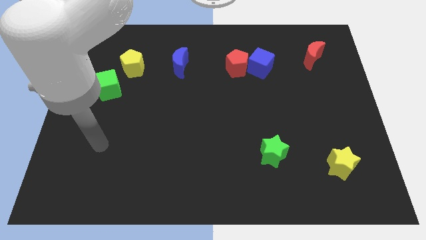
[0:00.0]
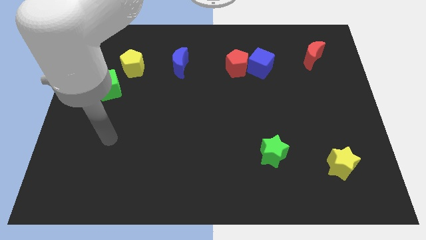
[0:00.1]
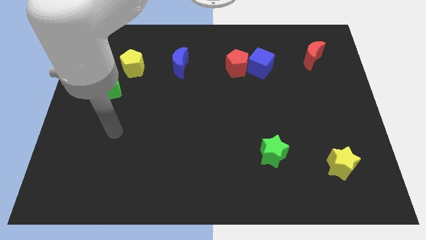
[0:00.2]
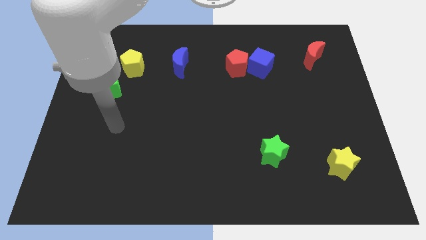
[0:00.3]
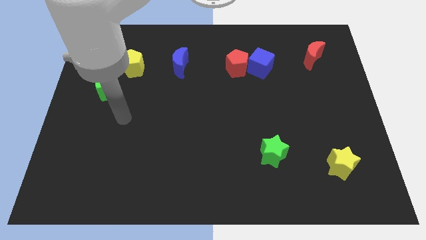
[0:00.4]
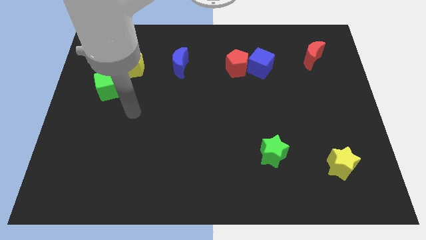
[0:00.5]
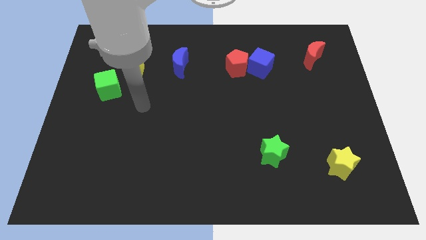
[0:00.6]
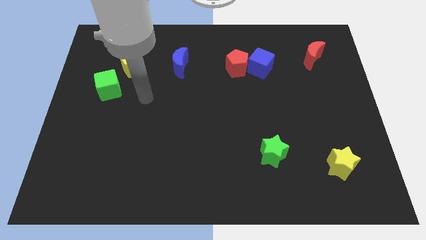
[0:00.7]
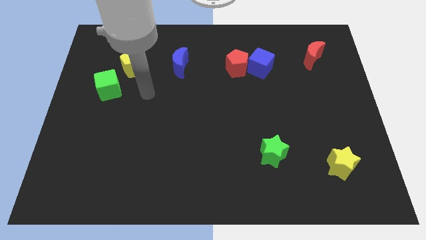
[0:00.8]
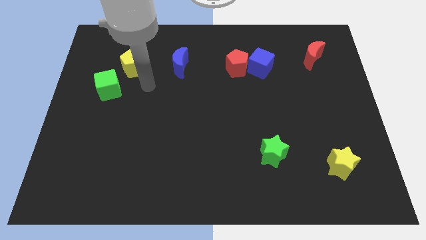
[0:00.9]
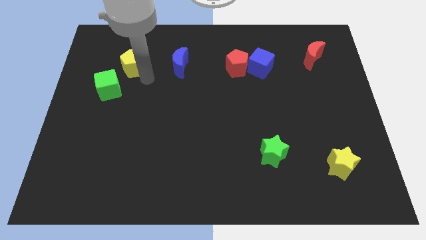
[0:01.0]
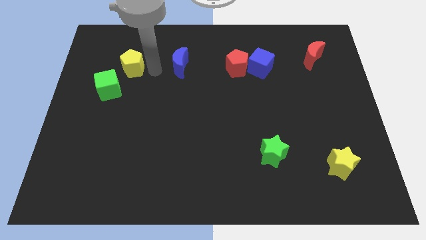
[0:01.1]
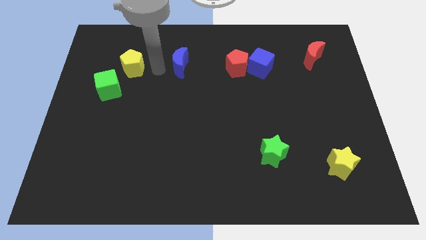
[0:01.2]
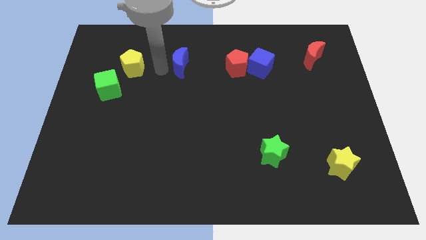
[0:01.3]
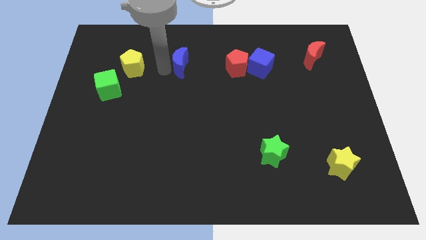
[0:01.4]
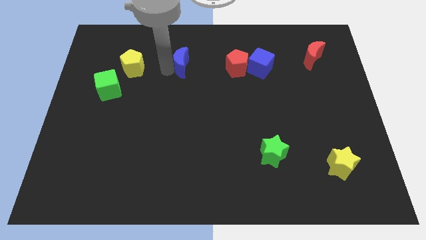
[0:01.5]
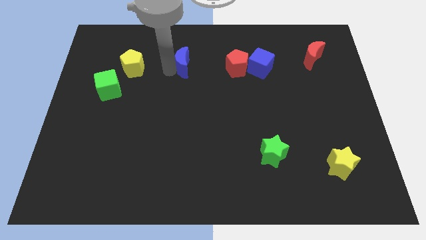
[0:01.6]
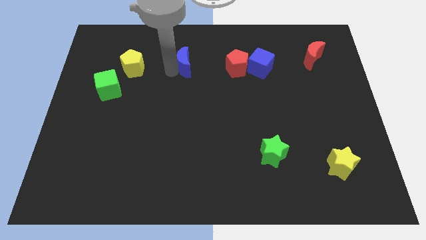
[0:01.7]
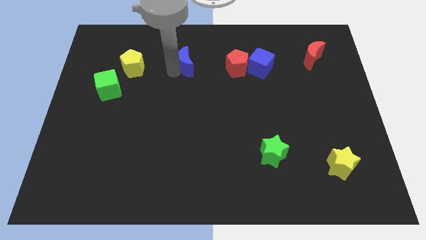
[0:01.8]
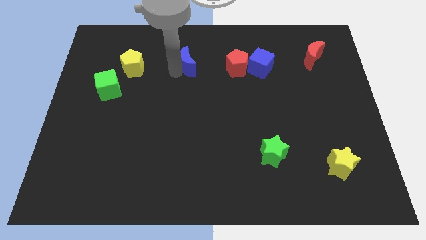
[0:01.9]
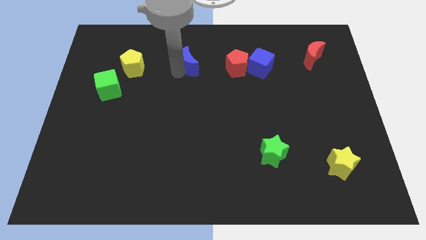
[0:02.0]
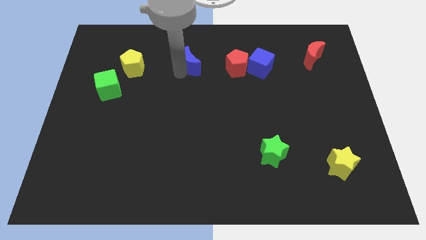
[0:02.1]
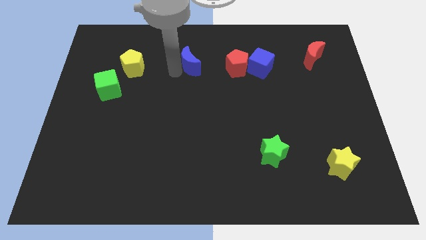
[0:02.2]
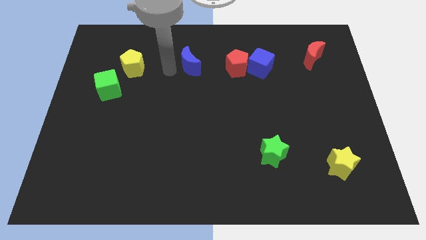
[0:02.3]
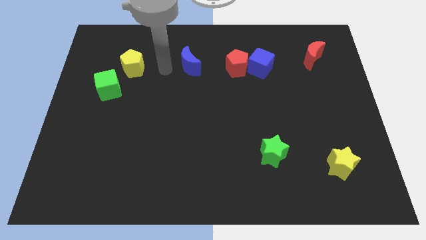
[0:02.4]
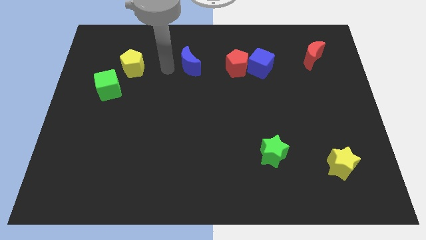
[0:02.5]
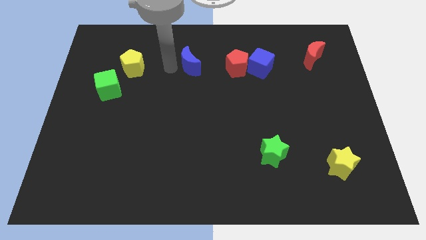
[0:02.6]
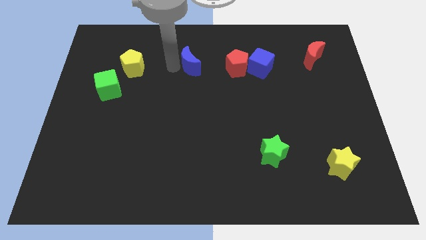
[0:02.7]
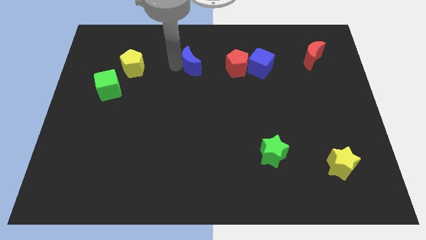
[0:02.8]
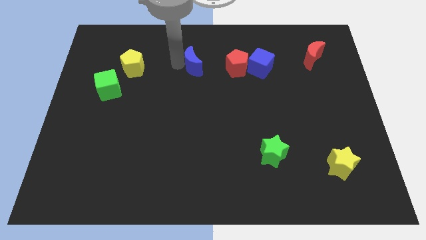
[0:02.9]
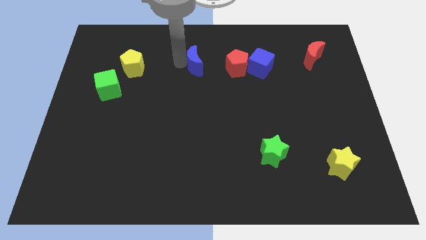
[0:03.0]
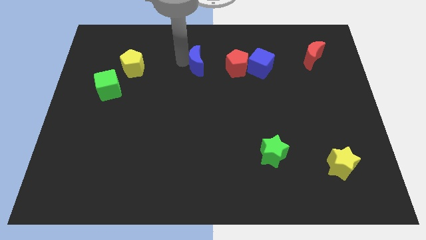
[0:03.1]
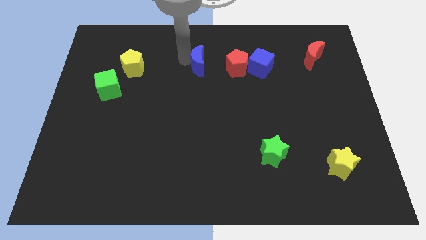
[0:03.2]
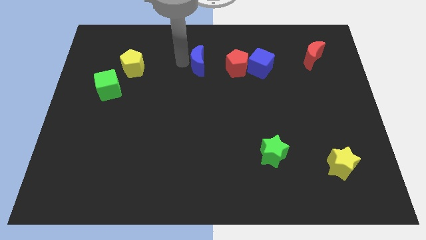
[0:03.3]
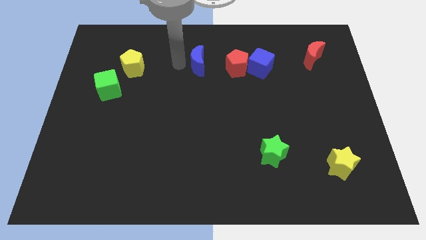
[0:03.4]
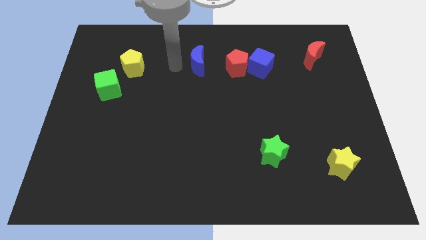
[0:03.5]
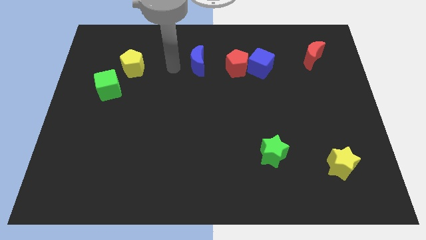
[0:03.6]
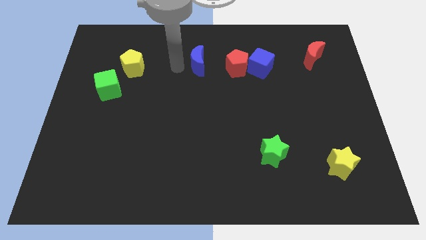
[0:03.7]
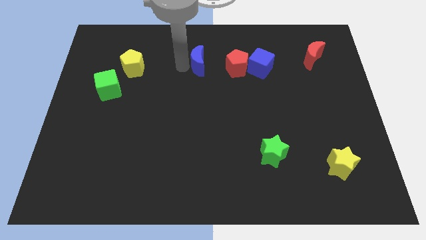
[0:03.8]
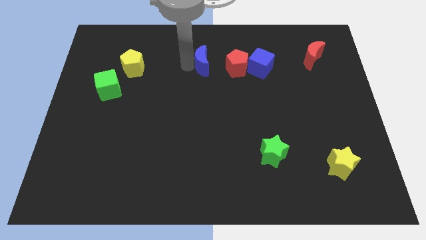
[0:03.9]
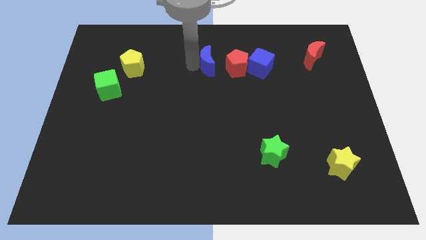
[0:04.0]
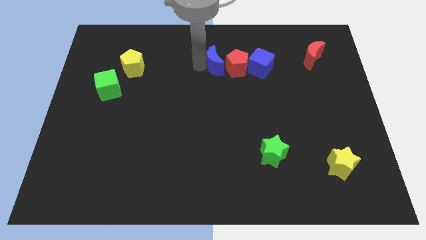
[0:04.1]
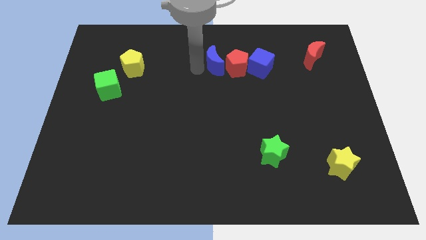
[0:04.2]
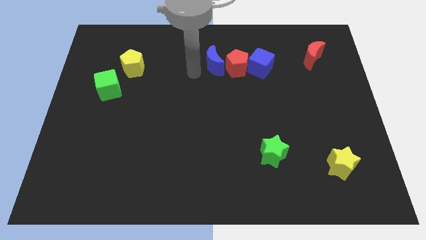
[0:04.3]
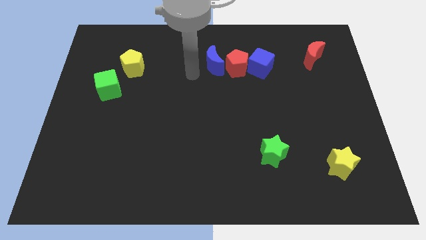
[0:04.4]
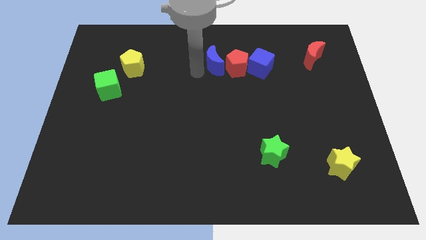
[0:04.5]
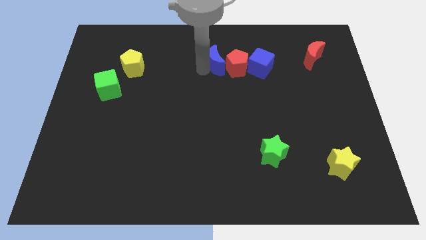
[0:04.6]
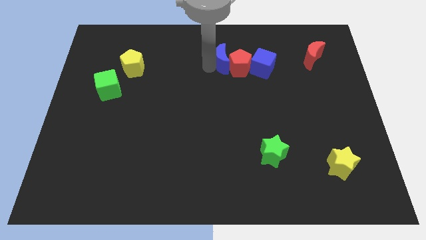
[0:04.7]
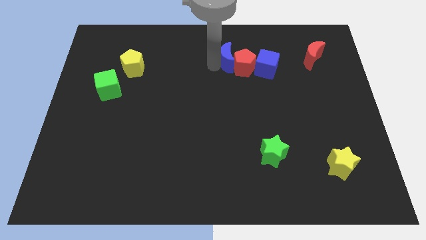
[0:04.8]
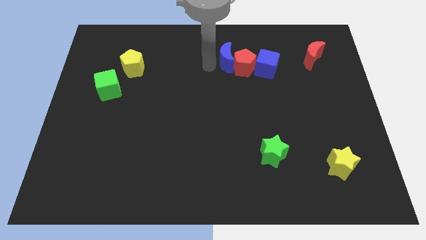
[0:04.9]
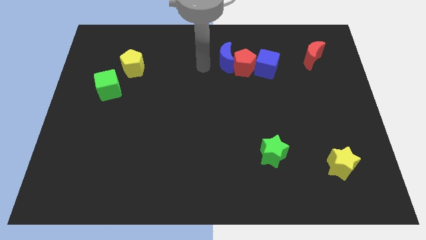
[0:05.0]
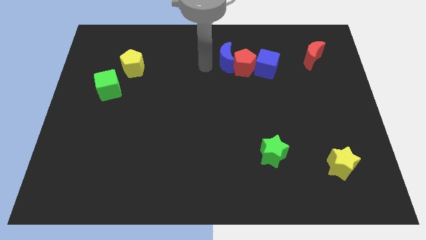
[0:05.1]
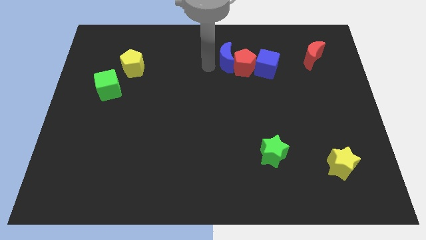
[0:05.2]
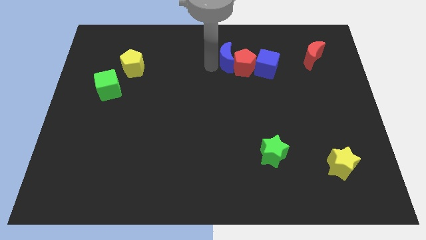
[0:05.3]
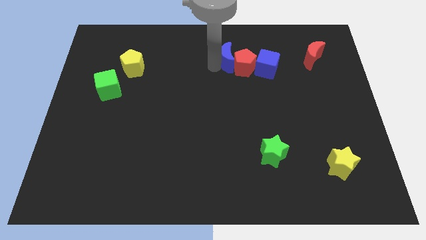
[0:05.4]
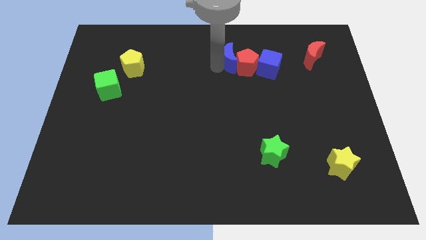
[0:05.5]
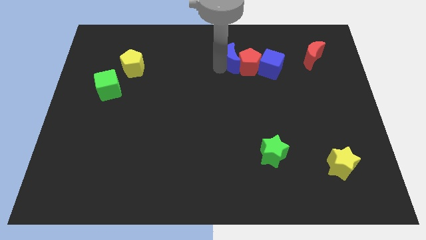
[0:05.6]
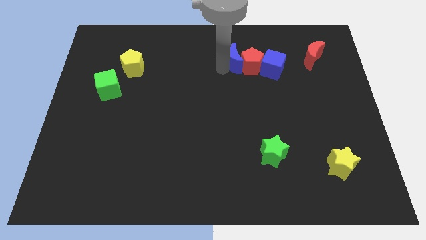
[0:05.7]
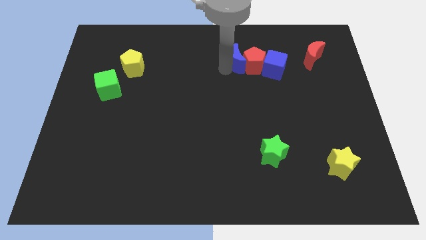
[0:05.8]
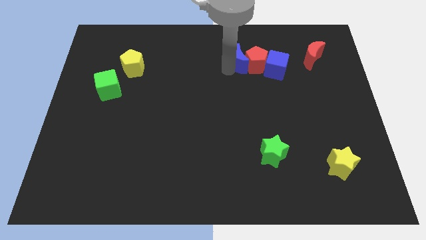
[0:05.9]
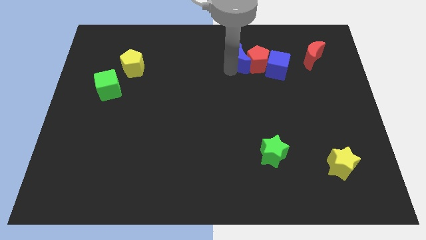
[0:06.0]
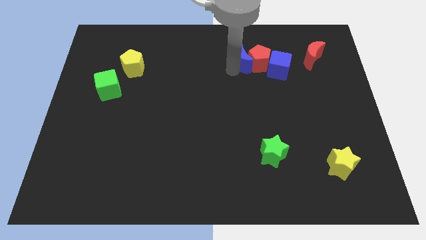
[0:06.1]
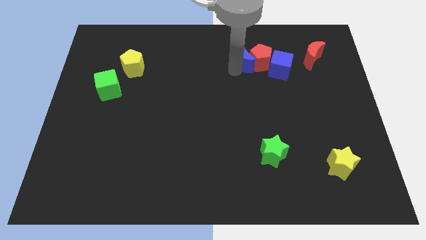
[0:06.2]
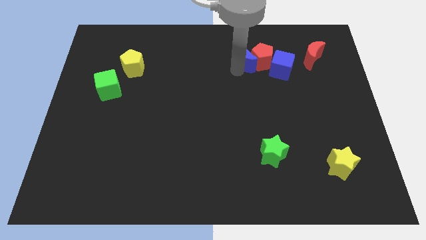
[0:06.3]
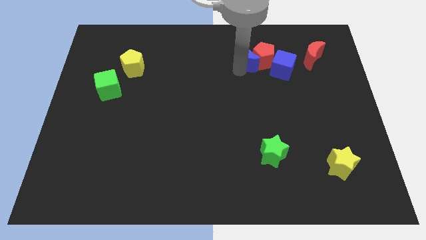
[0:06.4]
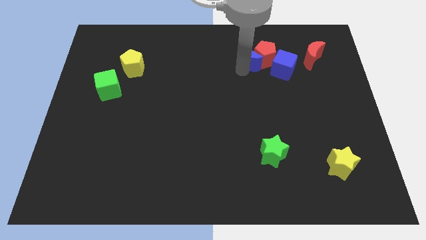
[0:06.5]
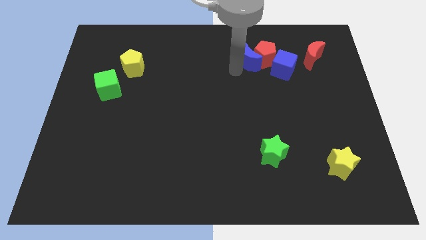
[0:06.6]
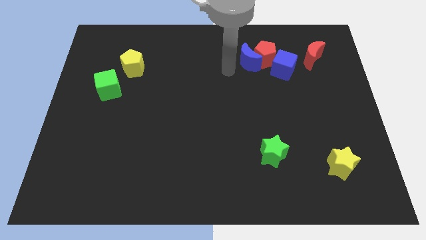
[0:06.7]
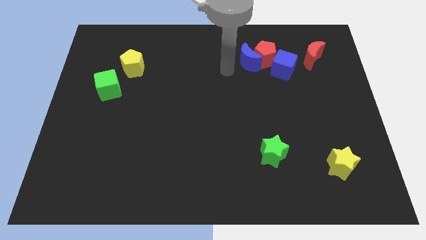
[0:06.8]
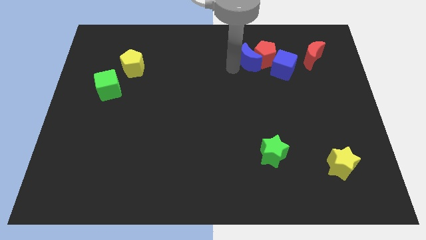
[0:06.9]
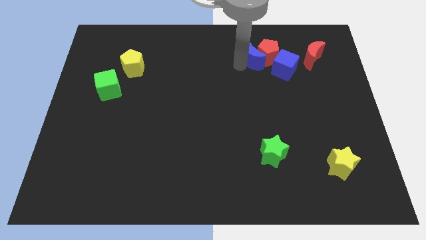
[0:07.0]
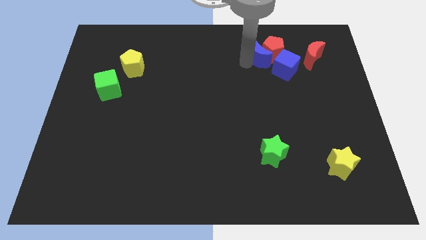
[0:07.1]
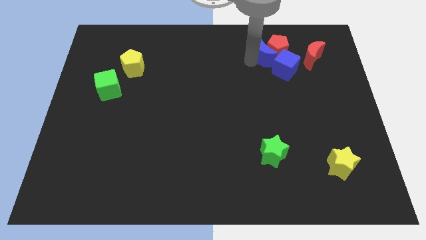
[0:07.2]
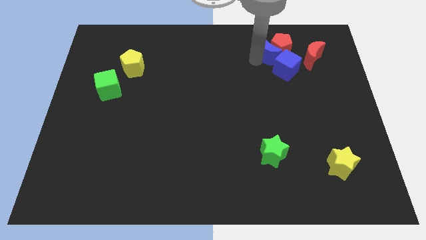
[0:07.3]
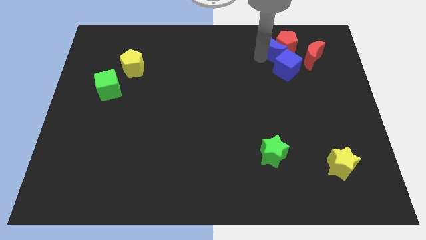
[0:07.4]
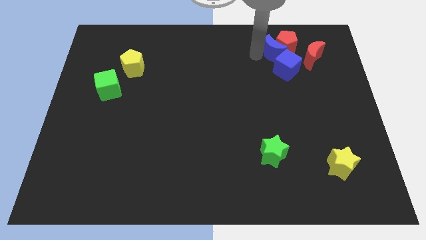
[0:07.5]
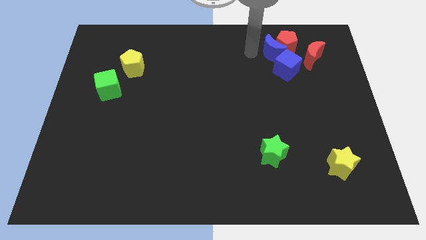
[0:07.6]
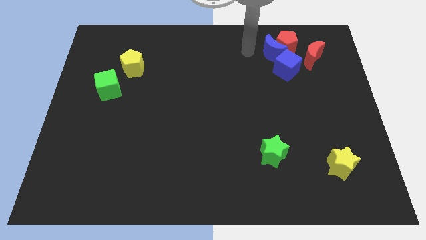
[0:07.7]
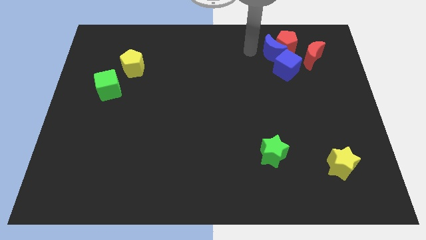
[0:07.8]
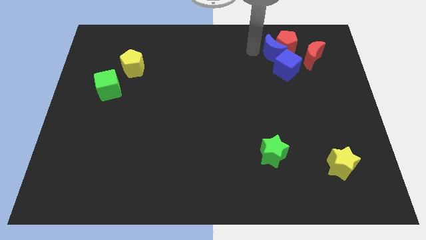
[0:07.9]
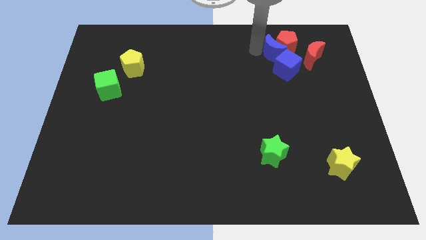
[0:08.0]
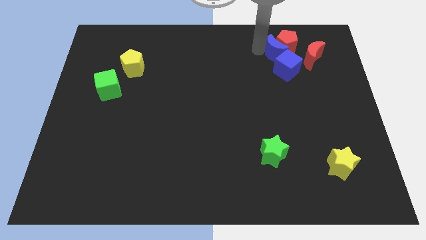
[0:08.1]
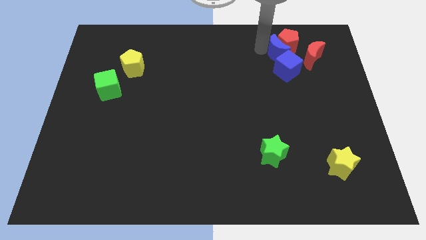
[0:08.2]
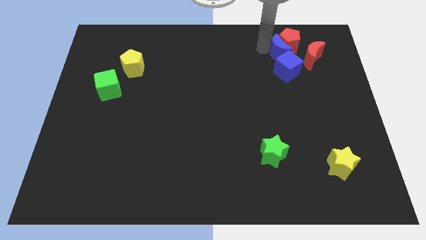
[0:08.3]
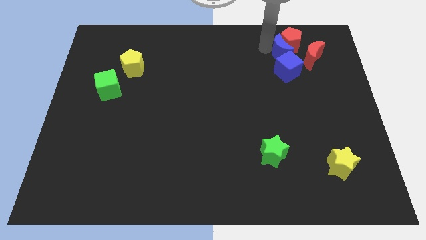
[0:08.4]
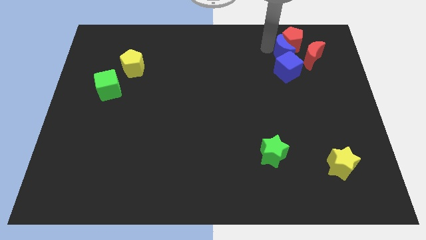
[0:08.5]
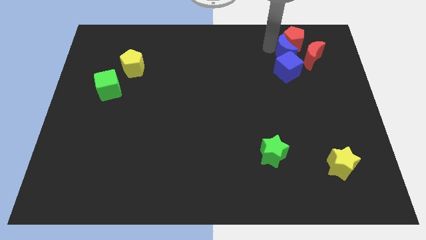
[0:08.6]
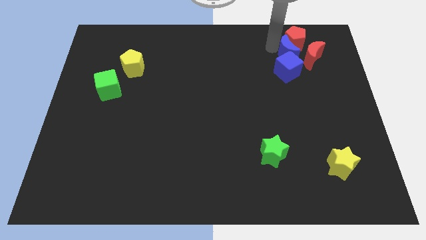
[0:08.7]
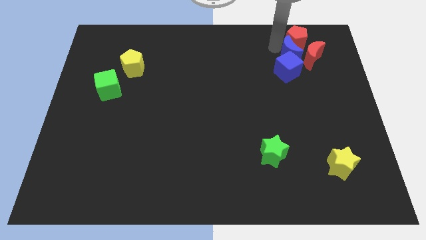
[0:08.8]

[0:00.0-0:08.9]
slide the blue moon to the red moon
